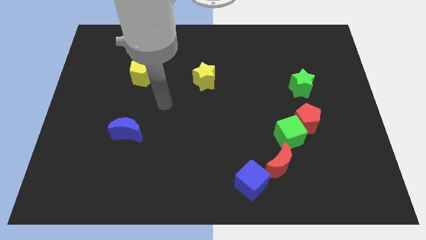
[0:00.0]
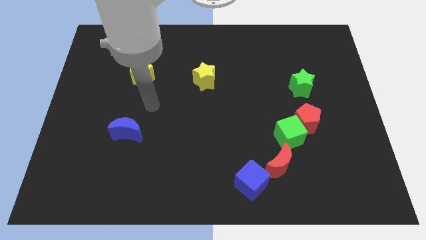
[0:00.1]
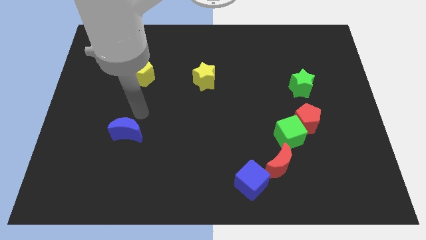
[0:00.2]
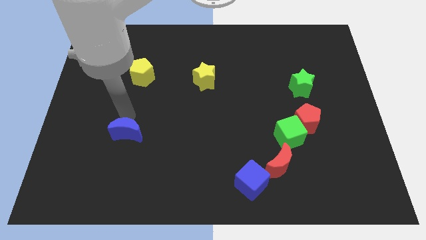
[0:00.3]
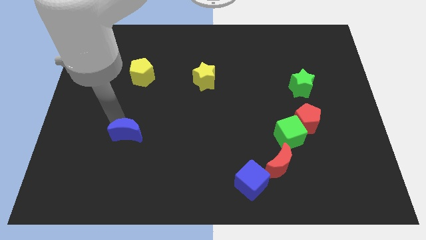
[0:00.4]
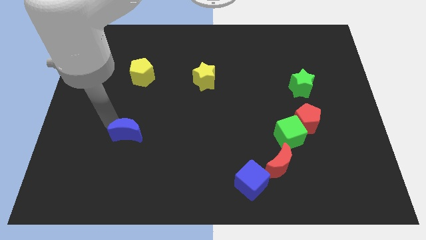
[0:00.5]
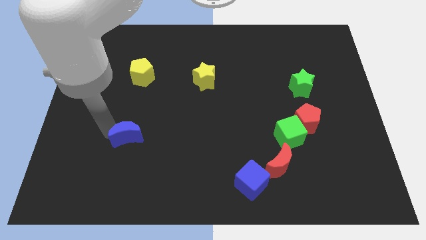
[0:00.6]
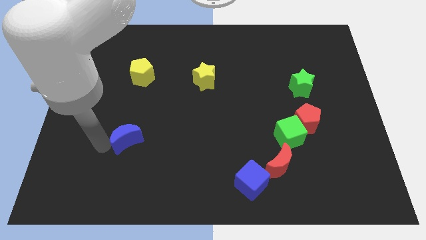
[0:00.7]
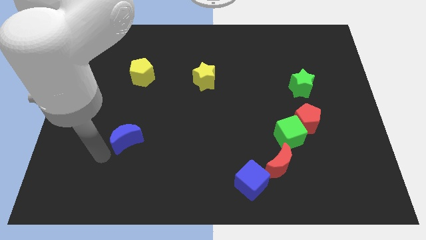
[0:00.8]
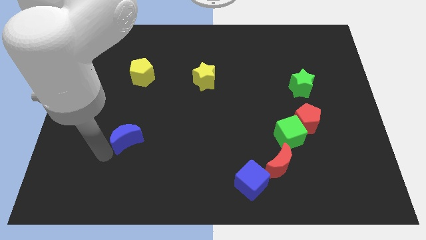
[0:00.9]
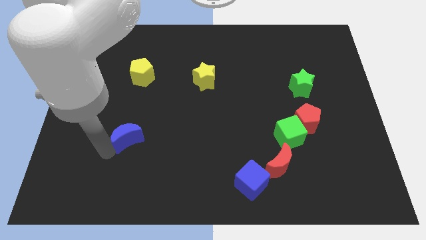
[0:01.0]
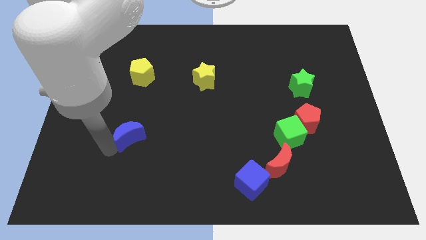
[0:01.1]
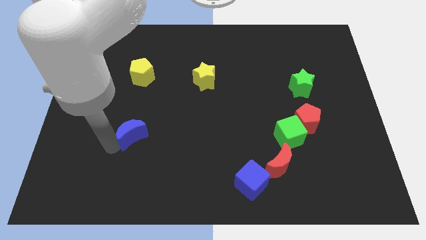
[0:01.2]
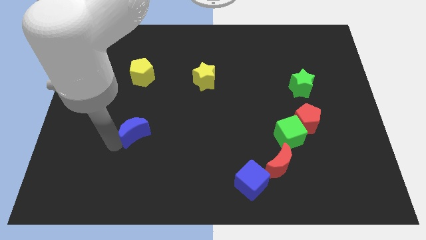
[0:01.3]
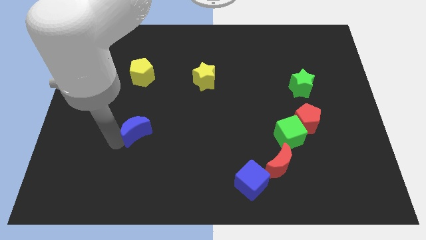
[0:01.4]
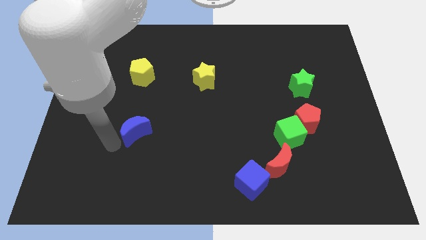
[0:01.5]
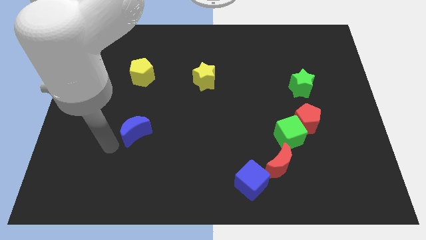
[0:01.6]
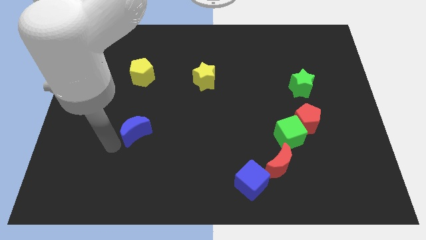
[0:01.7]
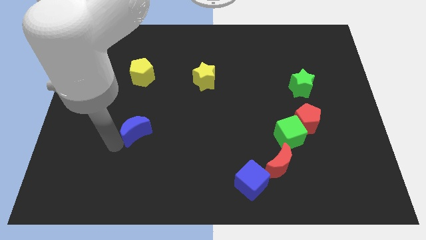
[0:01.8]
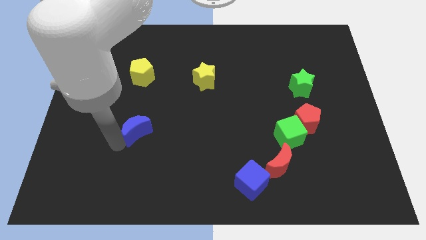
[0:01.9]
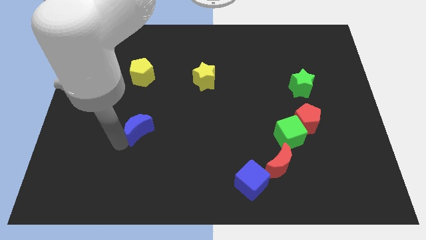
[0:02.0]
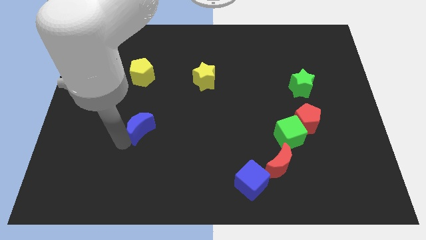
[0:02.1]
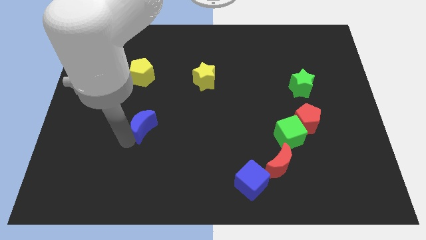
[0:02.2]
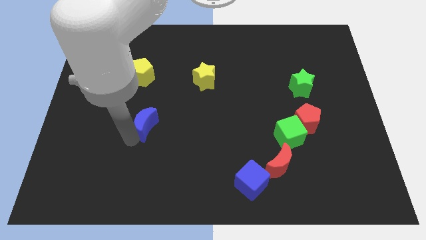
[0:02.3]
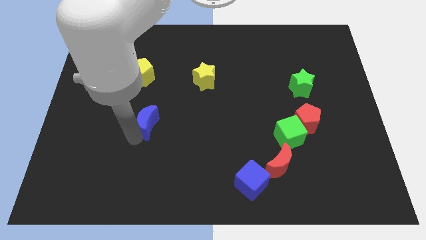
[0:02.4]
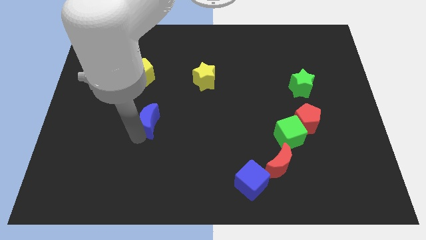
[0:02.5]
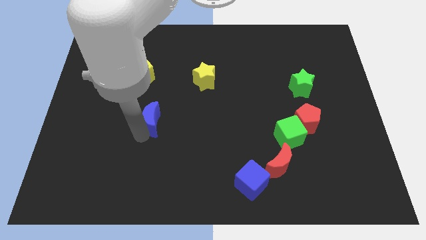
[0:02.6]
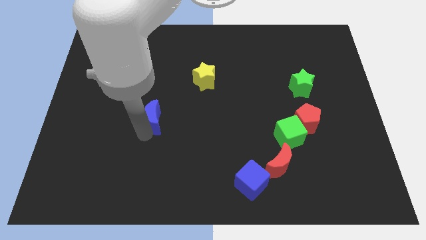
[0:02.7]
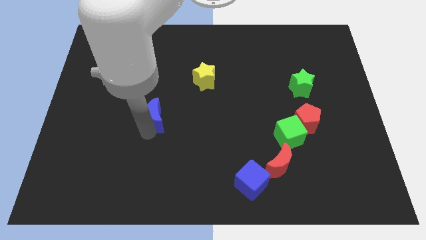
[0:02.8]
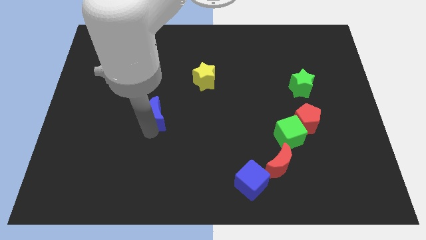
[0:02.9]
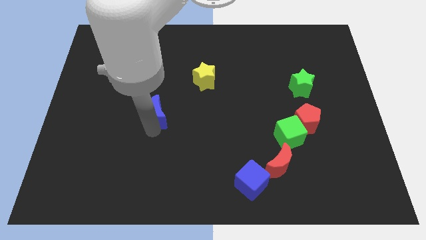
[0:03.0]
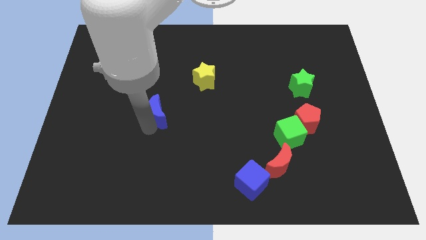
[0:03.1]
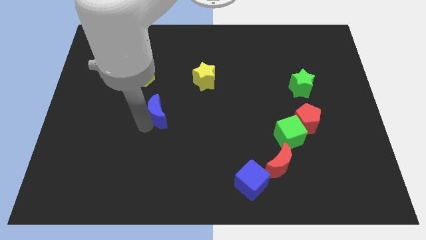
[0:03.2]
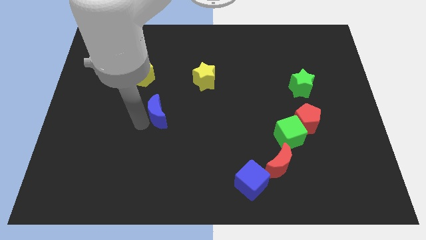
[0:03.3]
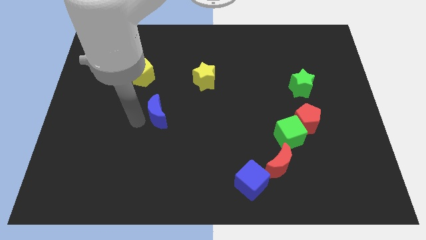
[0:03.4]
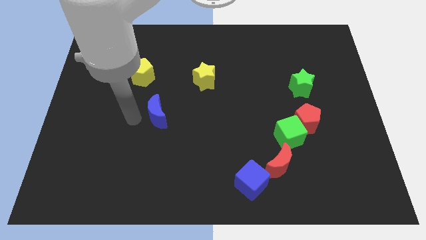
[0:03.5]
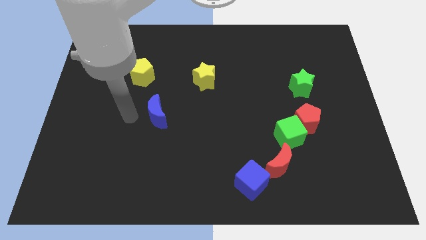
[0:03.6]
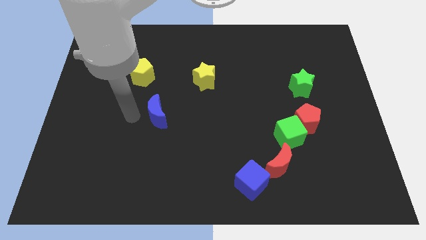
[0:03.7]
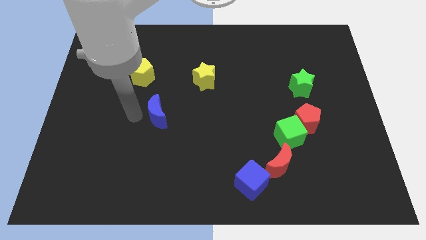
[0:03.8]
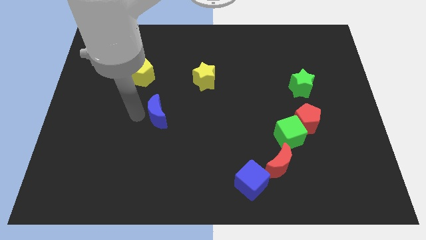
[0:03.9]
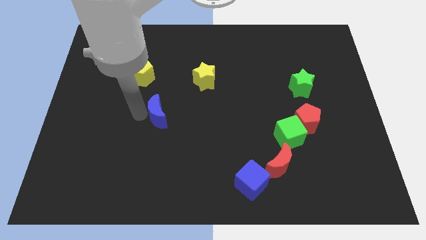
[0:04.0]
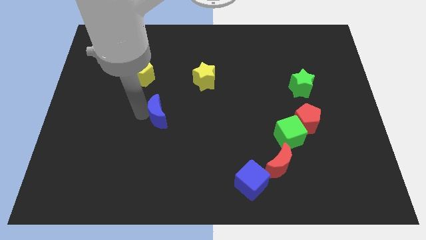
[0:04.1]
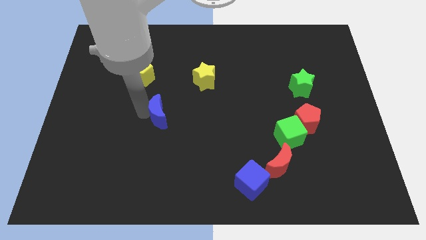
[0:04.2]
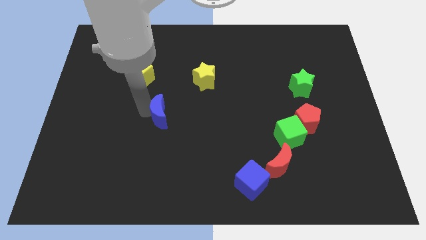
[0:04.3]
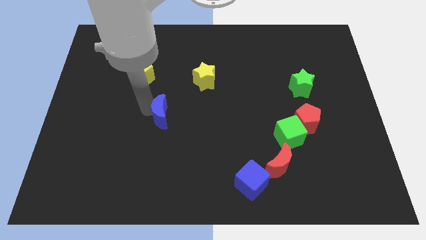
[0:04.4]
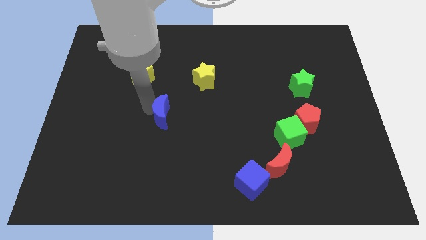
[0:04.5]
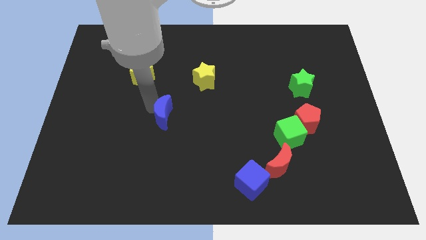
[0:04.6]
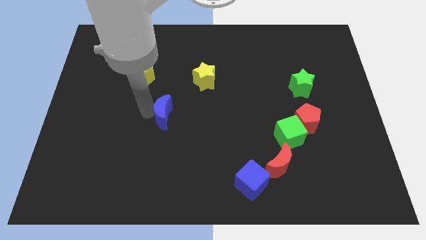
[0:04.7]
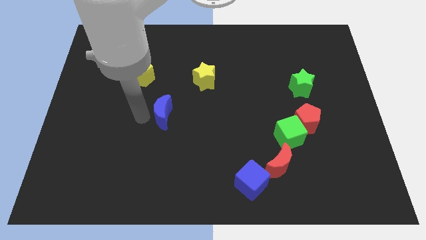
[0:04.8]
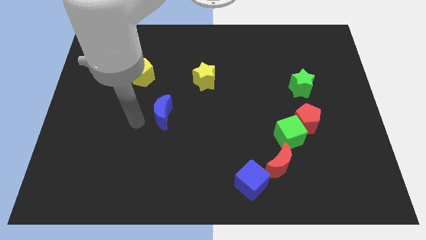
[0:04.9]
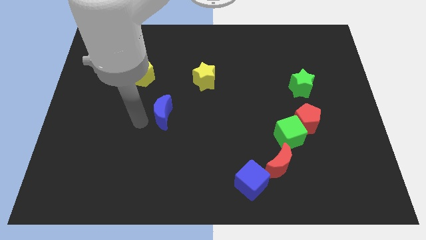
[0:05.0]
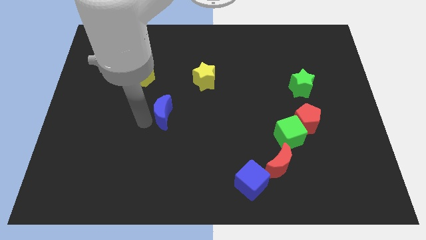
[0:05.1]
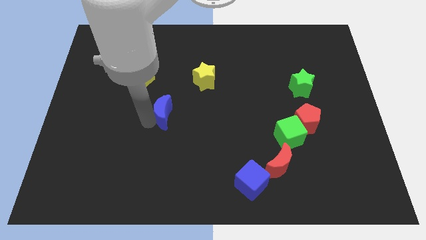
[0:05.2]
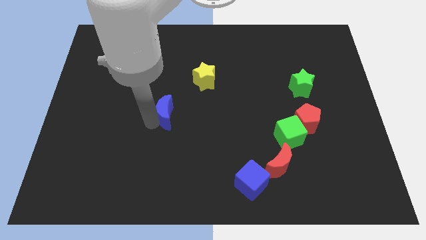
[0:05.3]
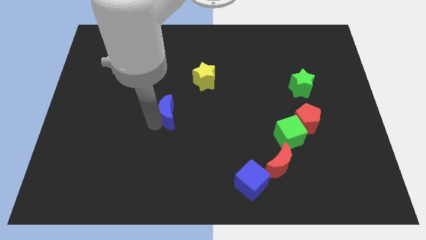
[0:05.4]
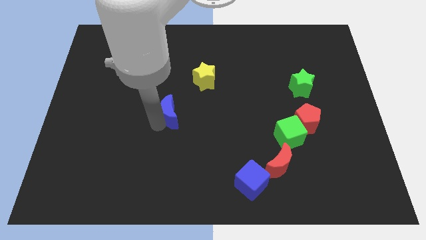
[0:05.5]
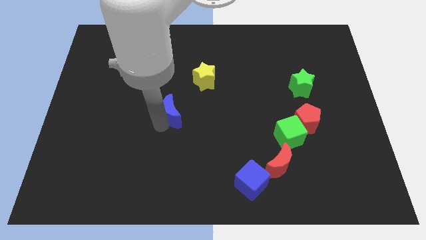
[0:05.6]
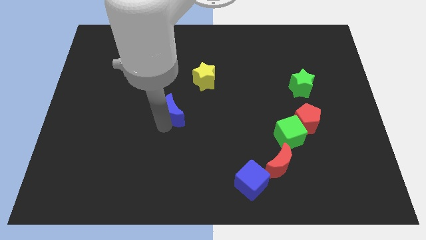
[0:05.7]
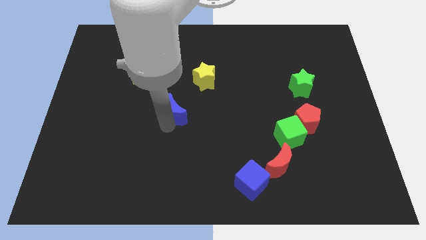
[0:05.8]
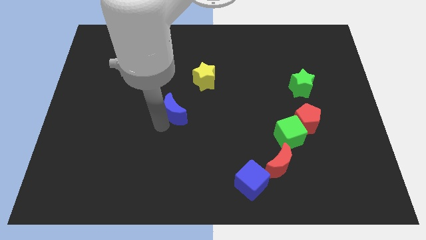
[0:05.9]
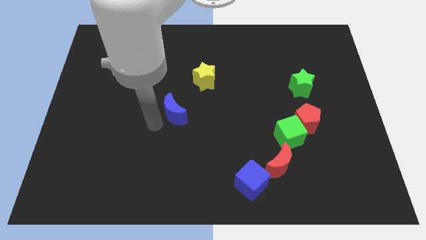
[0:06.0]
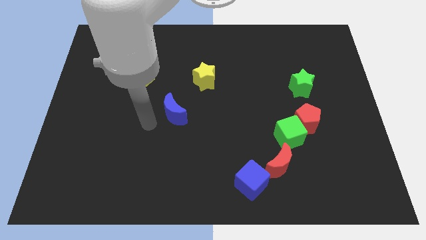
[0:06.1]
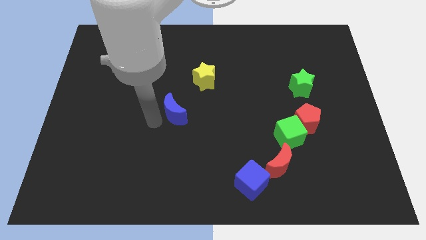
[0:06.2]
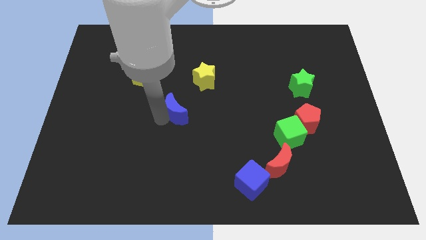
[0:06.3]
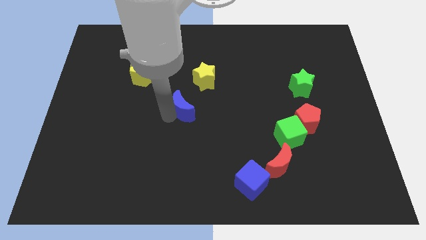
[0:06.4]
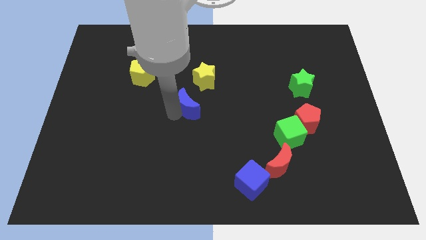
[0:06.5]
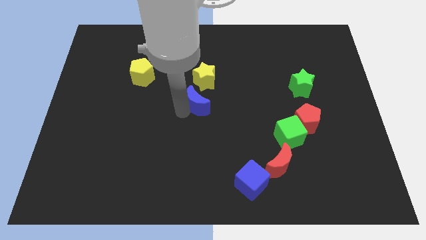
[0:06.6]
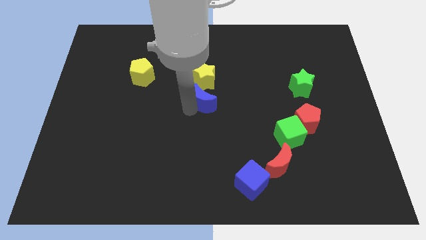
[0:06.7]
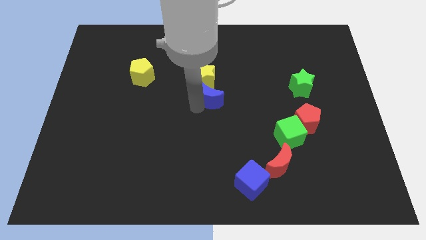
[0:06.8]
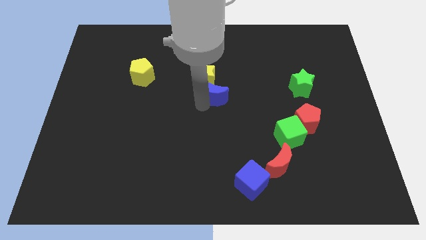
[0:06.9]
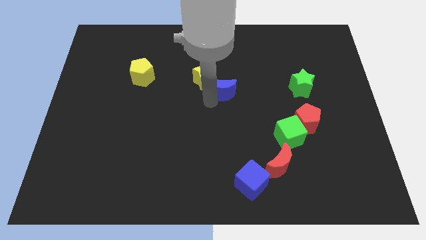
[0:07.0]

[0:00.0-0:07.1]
slide the blue moon upwards and to the right

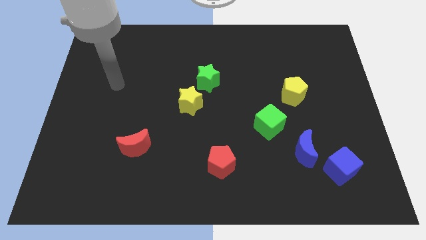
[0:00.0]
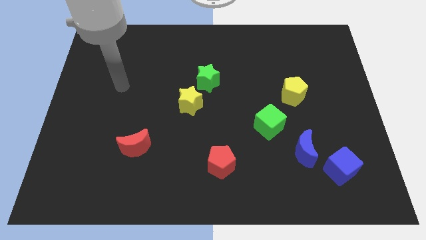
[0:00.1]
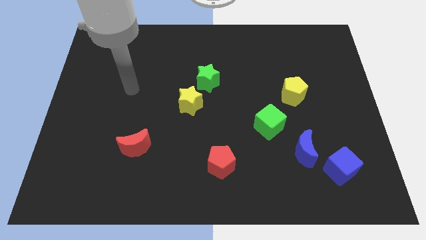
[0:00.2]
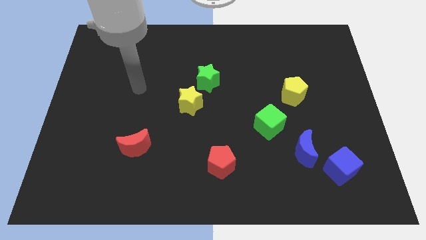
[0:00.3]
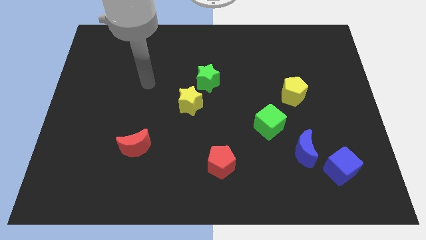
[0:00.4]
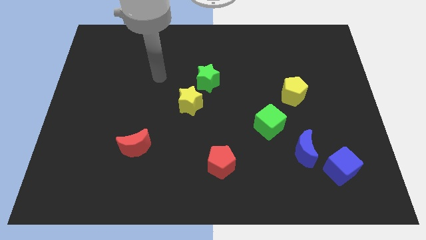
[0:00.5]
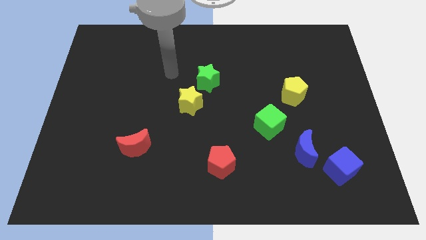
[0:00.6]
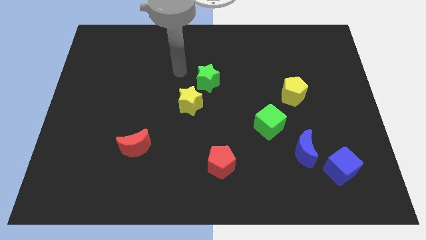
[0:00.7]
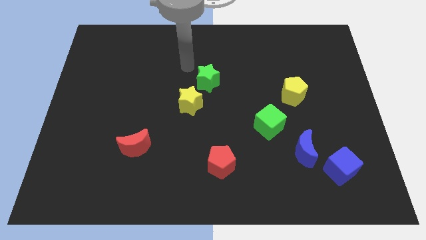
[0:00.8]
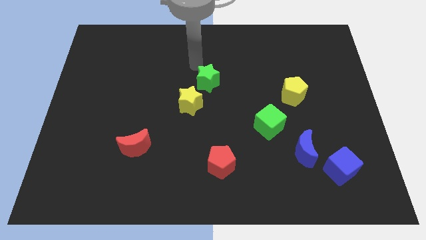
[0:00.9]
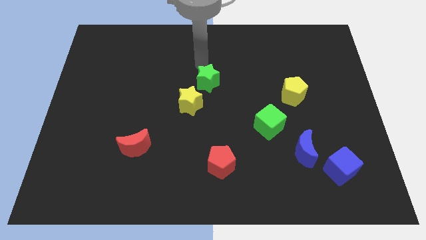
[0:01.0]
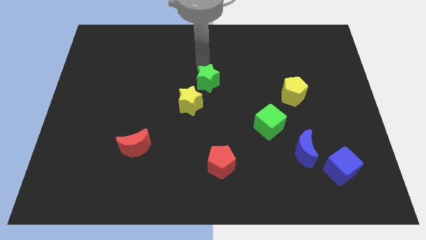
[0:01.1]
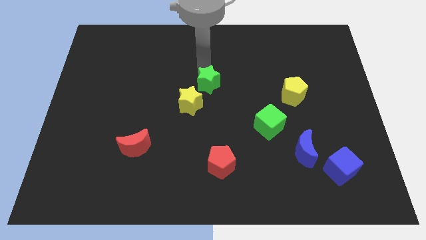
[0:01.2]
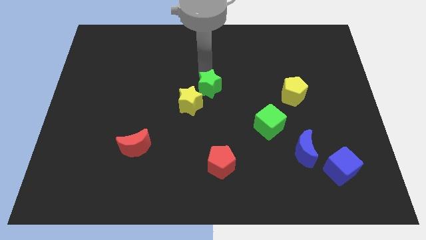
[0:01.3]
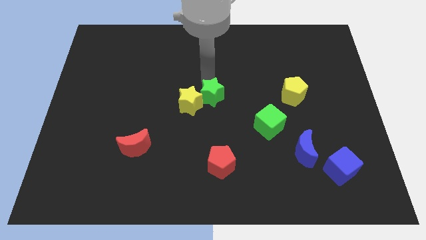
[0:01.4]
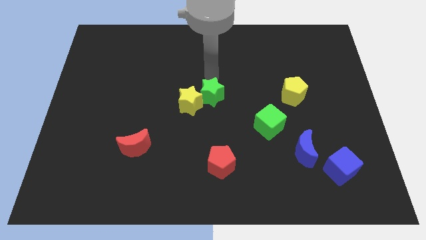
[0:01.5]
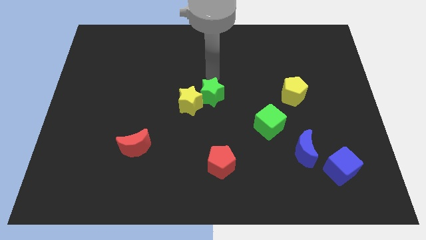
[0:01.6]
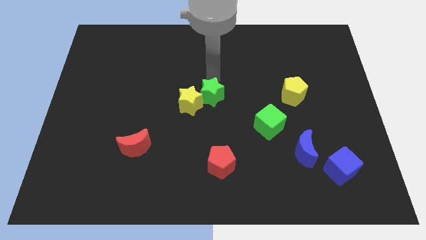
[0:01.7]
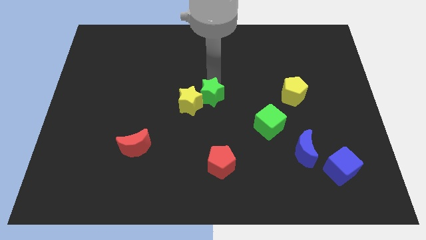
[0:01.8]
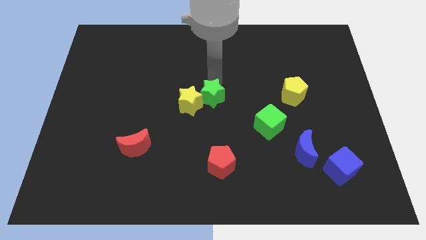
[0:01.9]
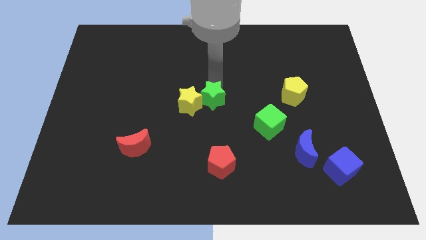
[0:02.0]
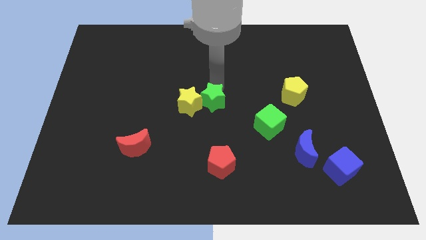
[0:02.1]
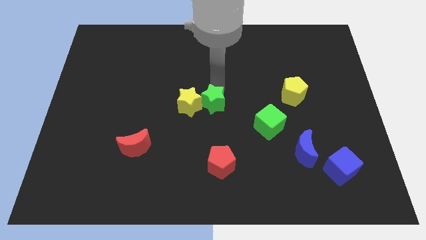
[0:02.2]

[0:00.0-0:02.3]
slide the green star downwards a bit
